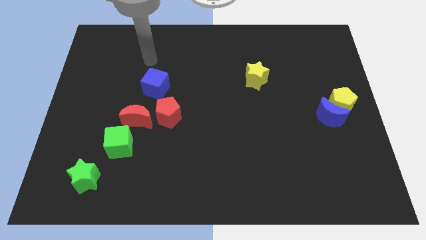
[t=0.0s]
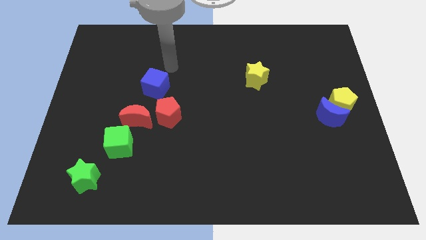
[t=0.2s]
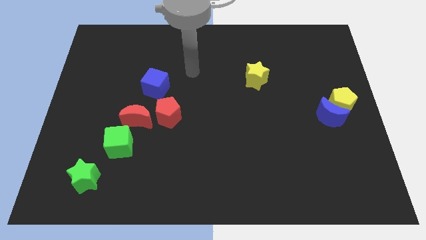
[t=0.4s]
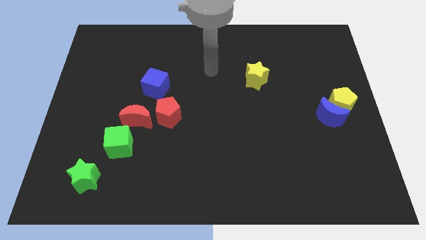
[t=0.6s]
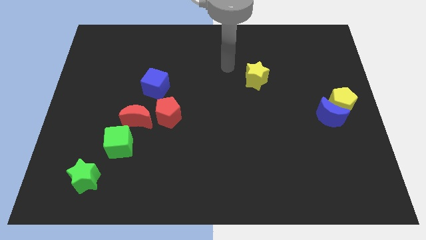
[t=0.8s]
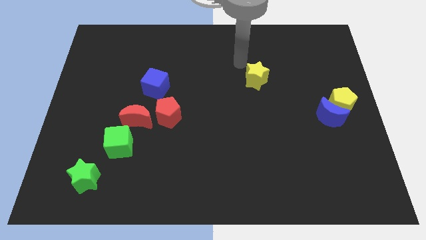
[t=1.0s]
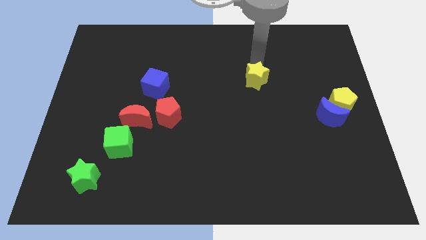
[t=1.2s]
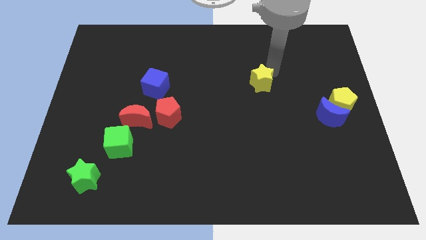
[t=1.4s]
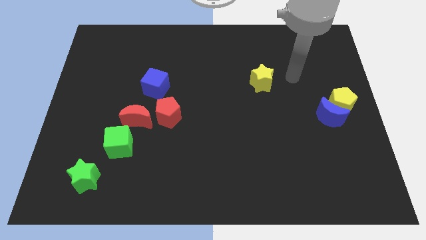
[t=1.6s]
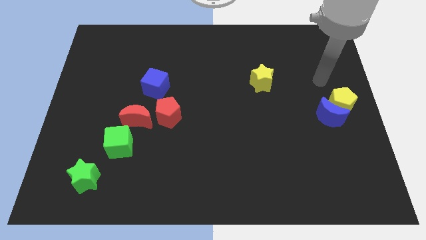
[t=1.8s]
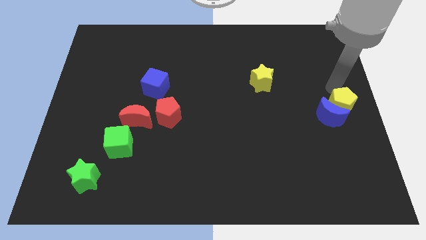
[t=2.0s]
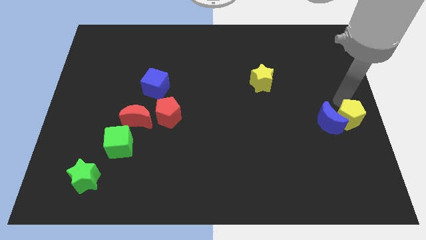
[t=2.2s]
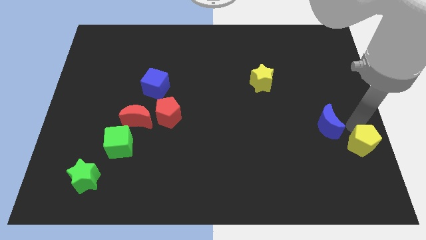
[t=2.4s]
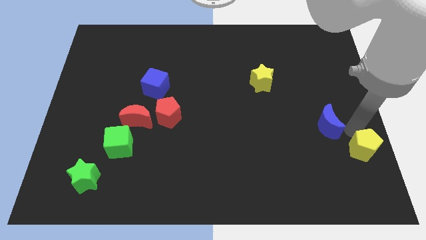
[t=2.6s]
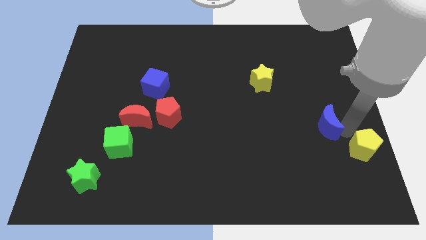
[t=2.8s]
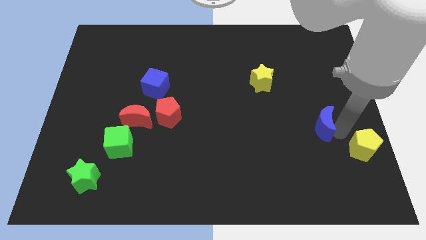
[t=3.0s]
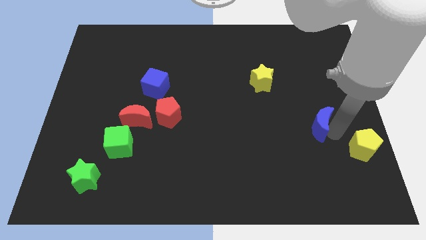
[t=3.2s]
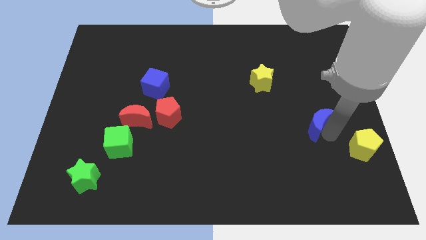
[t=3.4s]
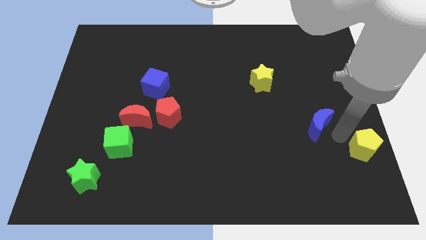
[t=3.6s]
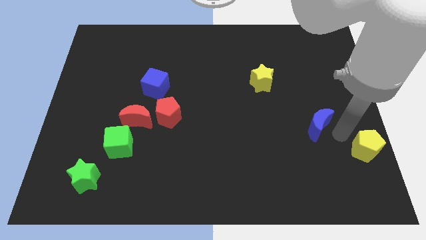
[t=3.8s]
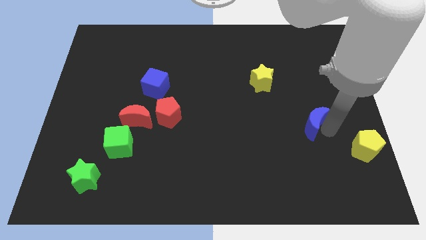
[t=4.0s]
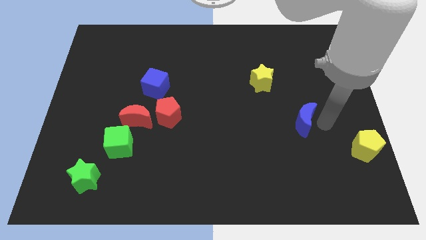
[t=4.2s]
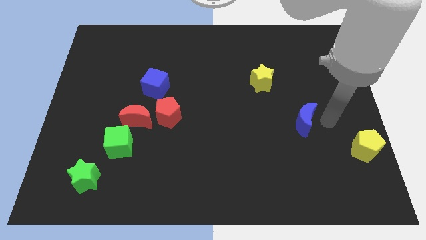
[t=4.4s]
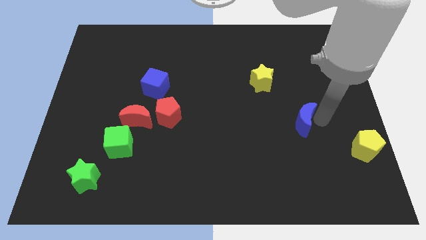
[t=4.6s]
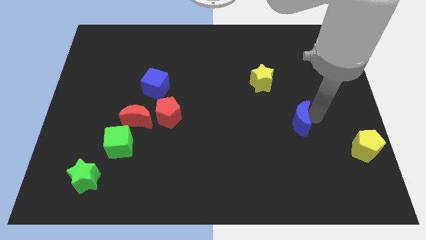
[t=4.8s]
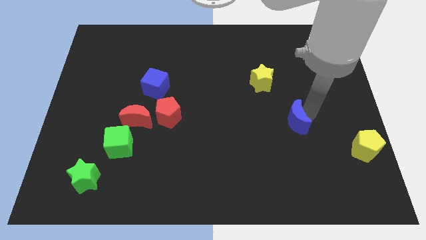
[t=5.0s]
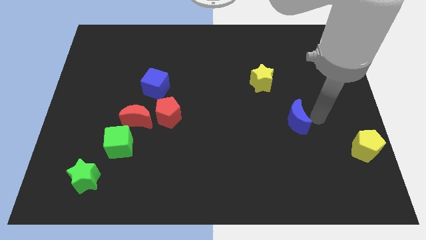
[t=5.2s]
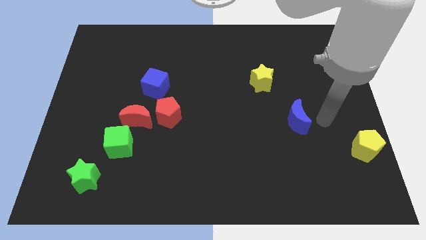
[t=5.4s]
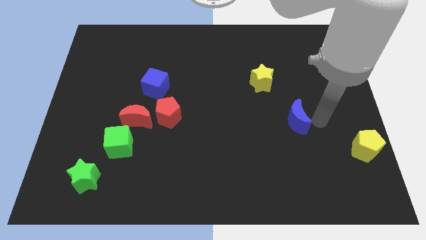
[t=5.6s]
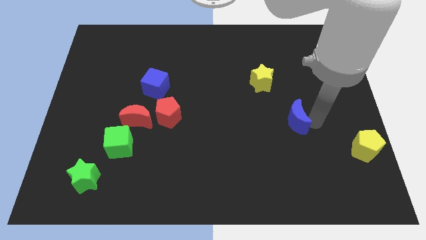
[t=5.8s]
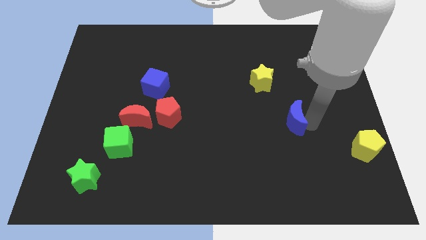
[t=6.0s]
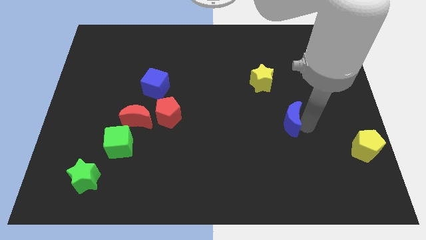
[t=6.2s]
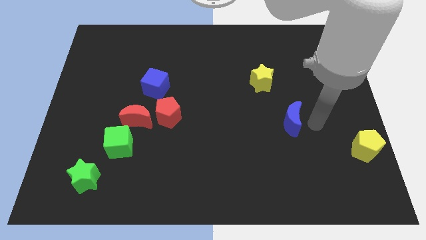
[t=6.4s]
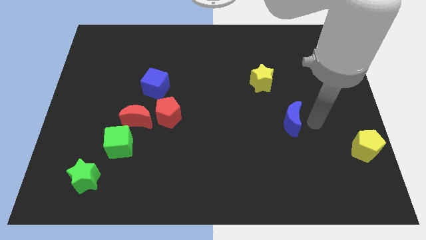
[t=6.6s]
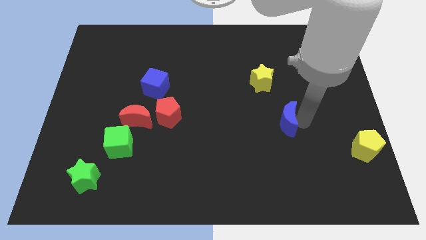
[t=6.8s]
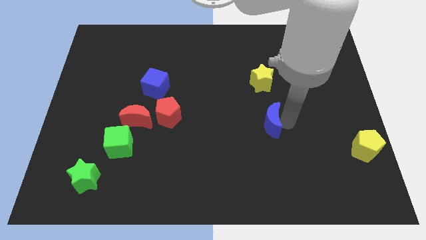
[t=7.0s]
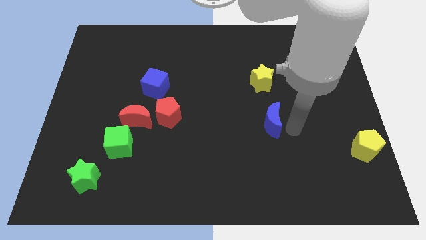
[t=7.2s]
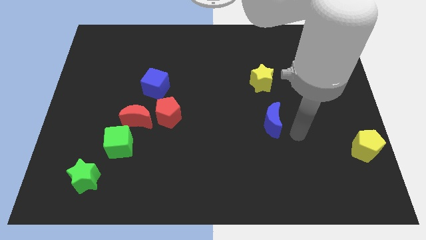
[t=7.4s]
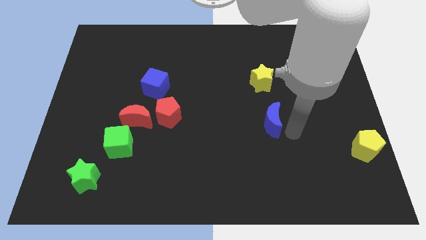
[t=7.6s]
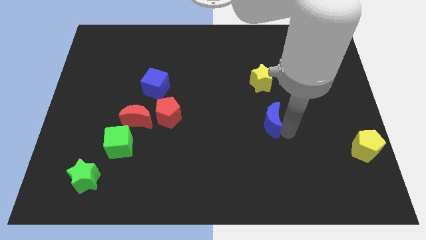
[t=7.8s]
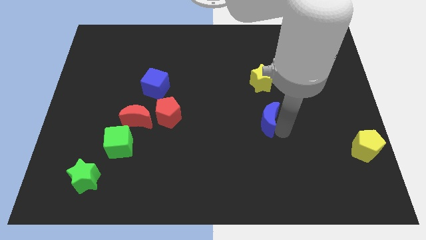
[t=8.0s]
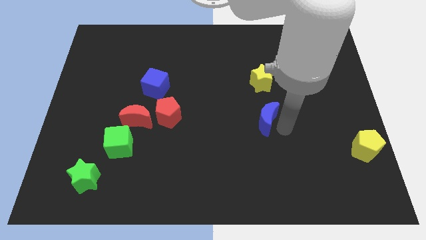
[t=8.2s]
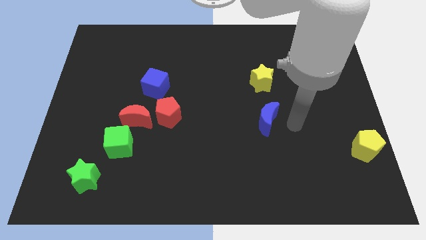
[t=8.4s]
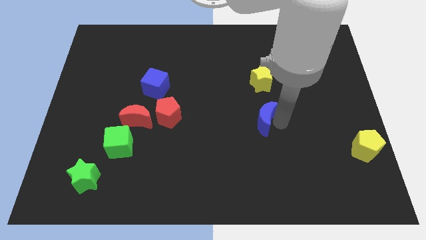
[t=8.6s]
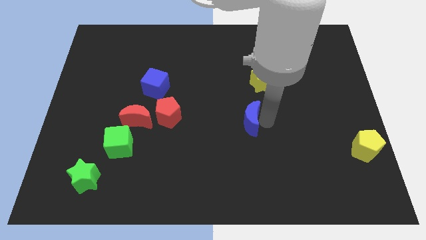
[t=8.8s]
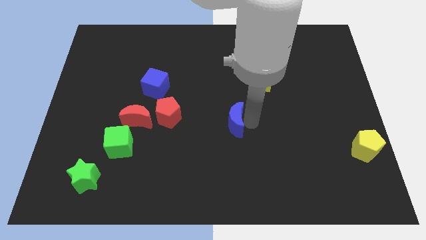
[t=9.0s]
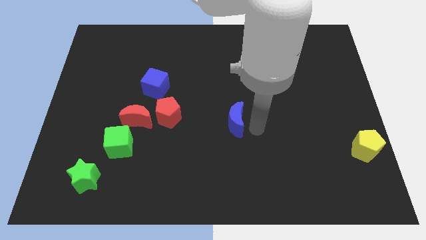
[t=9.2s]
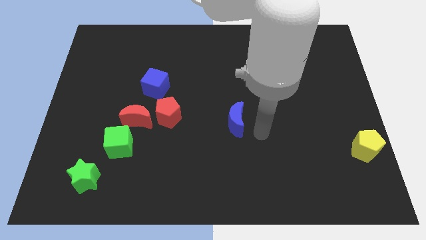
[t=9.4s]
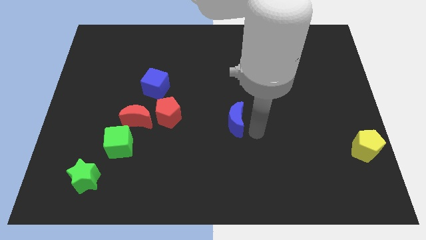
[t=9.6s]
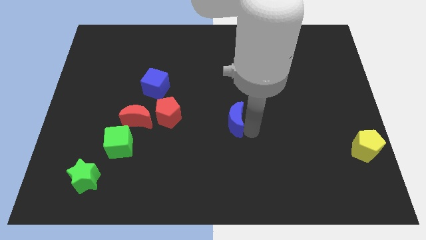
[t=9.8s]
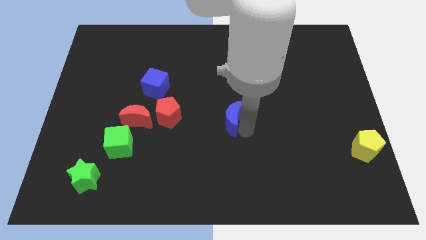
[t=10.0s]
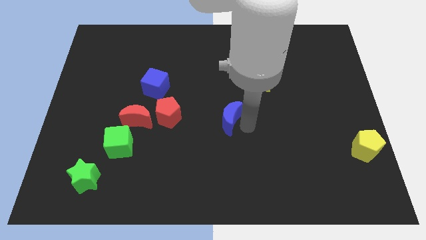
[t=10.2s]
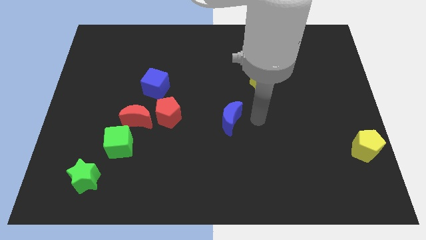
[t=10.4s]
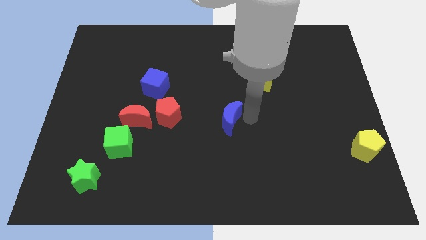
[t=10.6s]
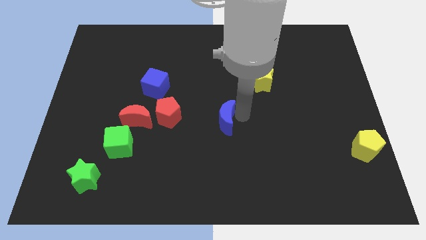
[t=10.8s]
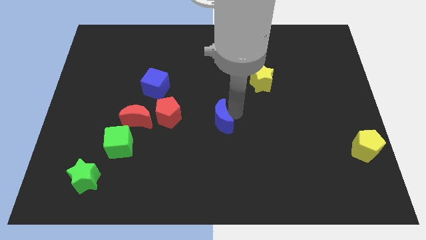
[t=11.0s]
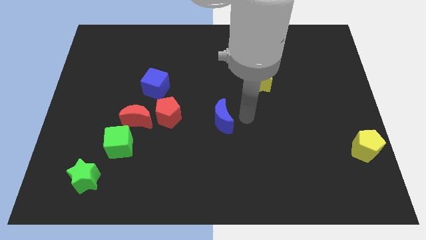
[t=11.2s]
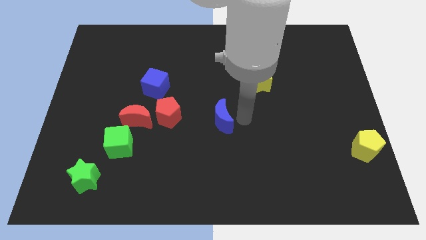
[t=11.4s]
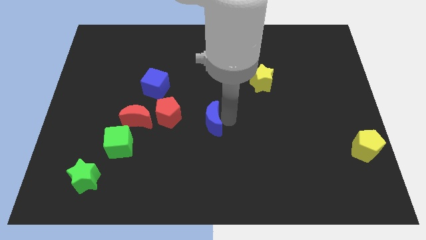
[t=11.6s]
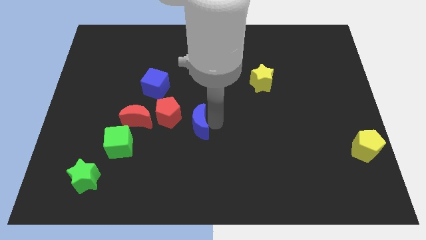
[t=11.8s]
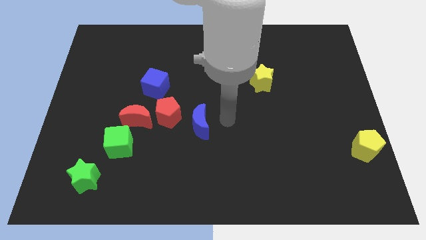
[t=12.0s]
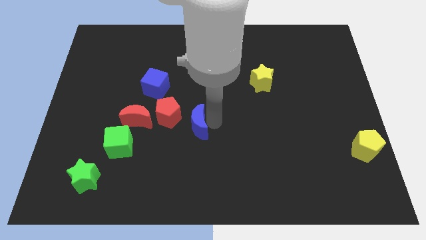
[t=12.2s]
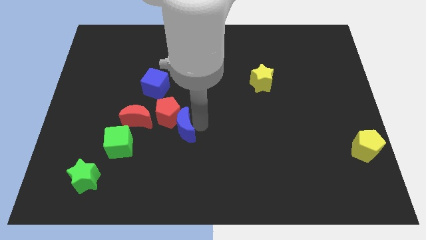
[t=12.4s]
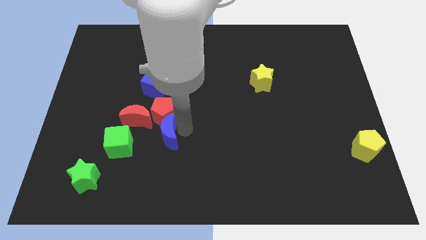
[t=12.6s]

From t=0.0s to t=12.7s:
move the blue moon to the bottom left of the red pentagon
